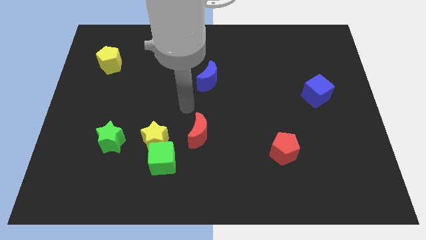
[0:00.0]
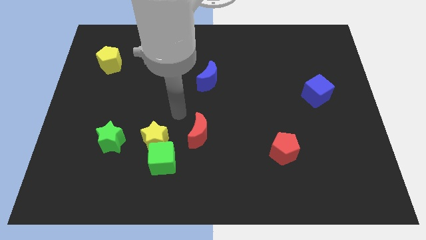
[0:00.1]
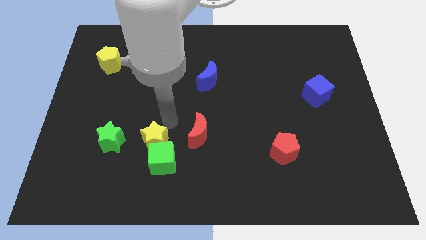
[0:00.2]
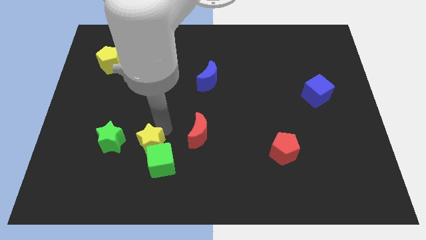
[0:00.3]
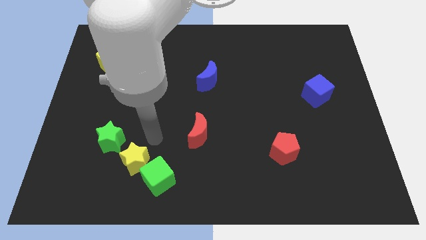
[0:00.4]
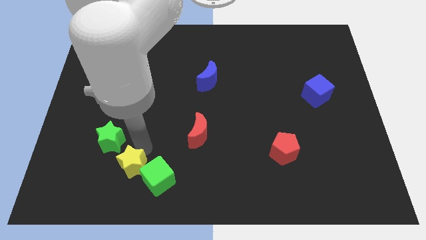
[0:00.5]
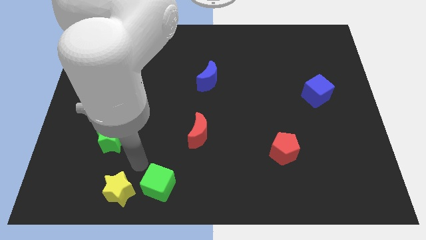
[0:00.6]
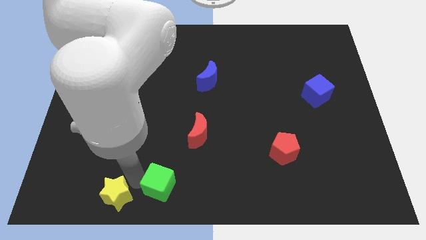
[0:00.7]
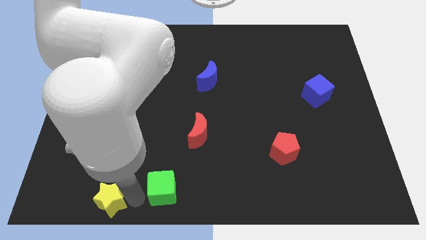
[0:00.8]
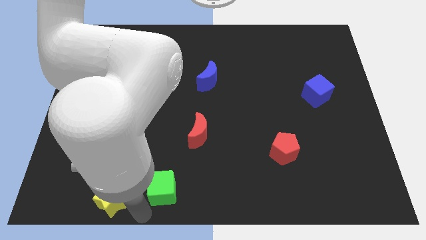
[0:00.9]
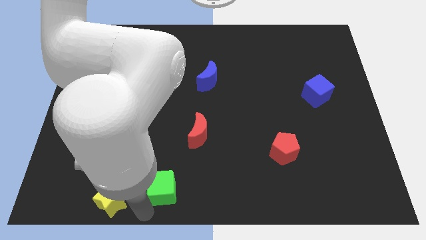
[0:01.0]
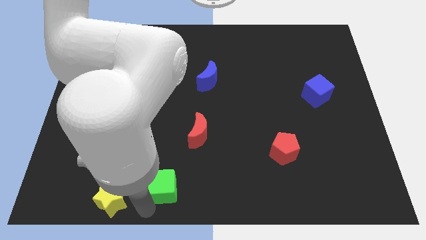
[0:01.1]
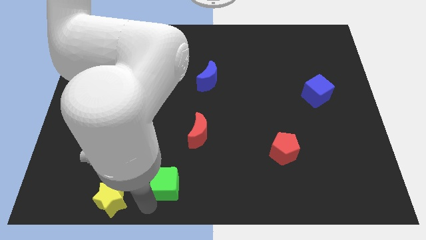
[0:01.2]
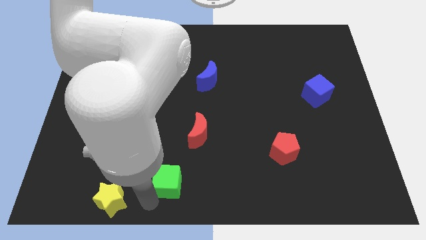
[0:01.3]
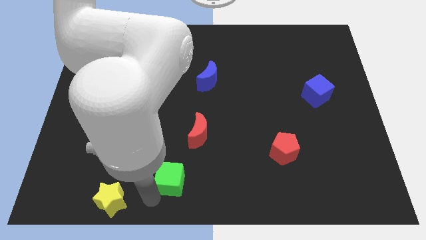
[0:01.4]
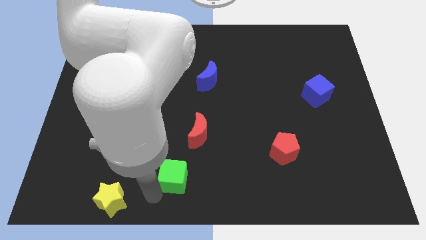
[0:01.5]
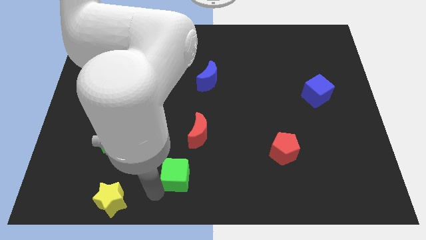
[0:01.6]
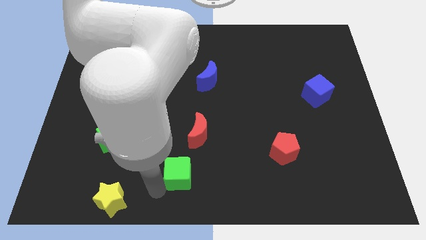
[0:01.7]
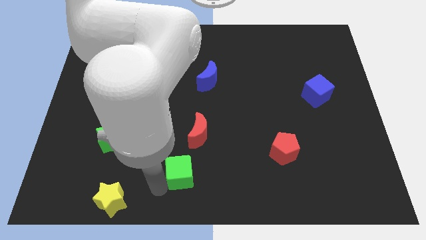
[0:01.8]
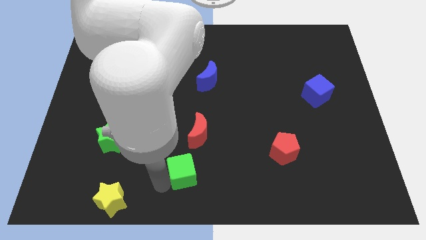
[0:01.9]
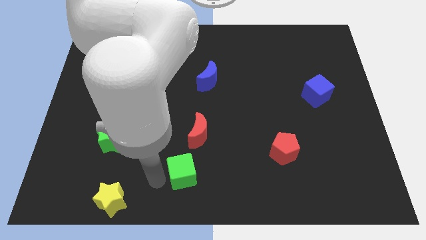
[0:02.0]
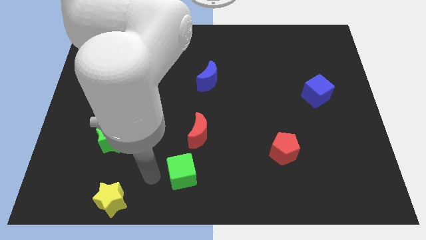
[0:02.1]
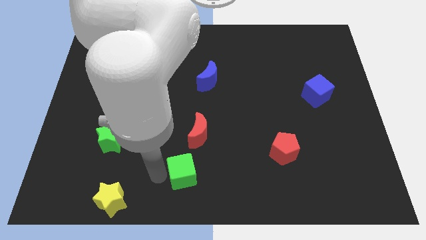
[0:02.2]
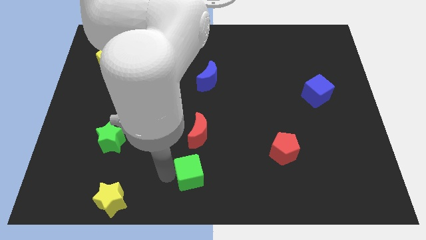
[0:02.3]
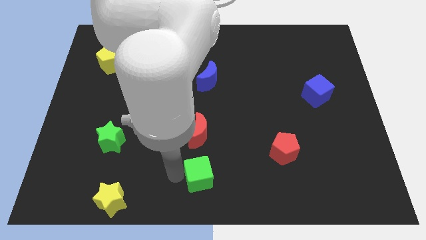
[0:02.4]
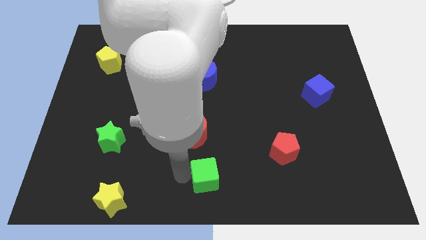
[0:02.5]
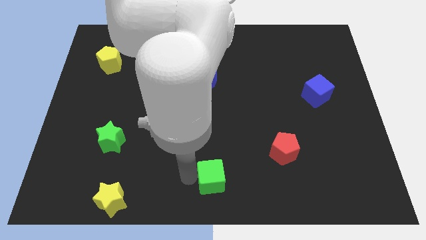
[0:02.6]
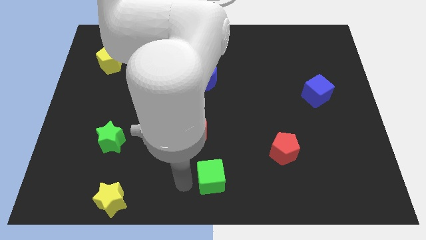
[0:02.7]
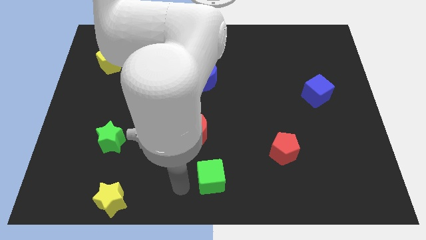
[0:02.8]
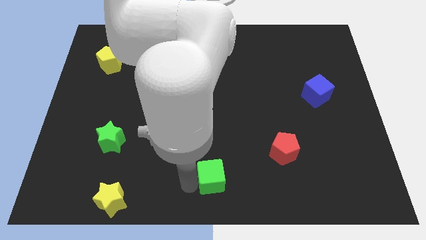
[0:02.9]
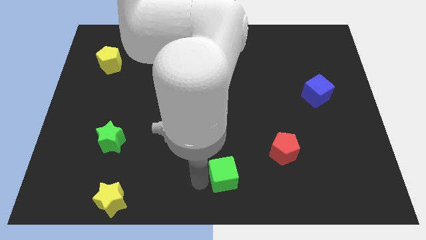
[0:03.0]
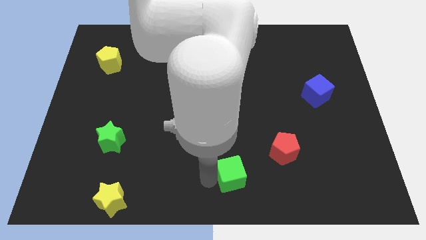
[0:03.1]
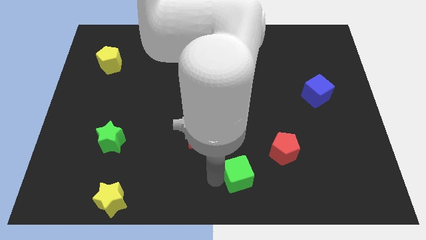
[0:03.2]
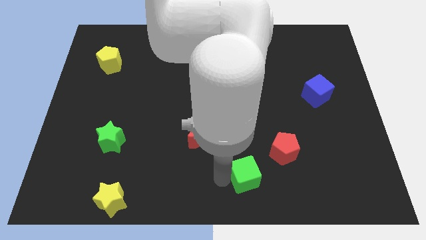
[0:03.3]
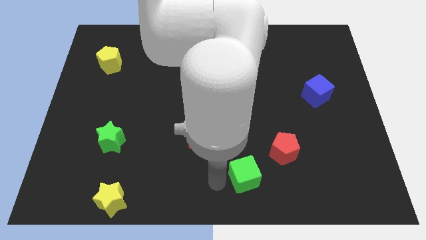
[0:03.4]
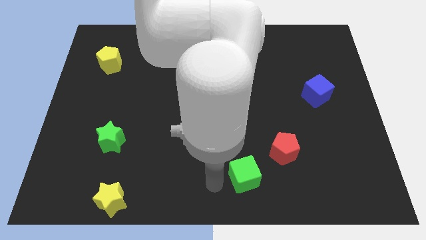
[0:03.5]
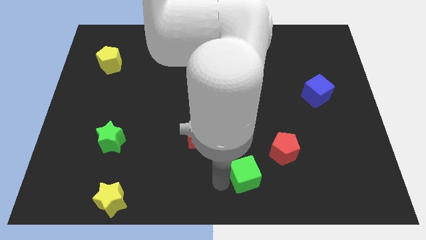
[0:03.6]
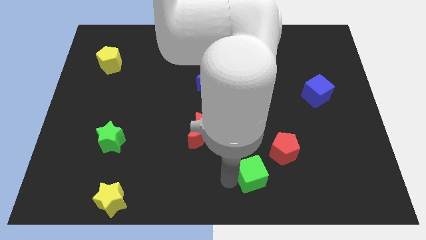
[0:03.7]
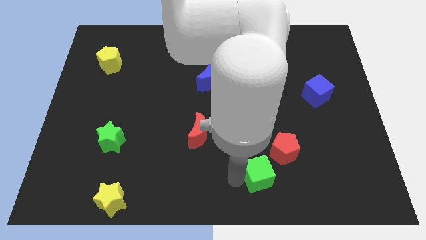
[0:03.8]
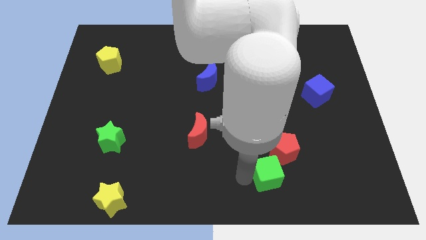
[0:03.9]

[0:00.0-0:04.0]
push the green cube right

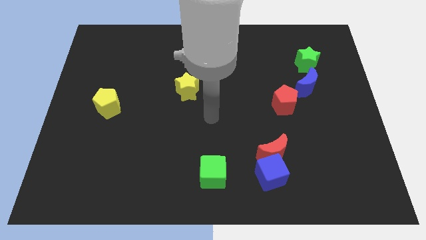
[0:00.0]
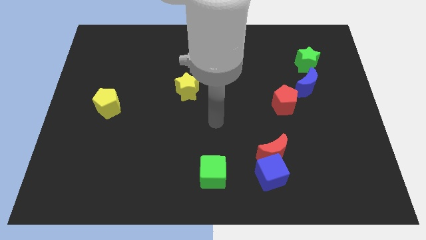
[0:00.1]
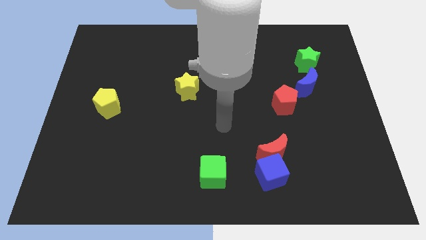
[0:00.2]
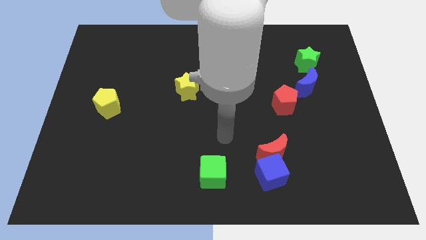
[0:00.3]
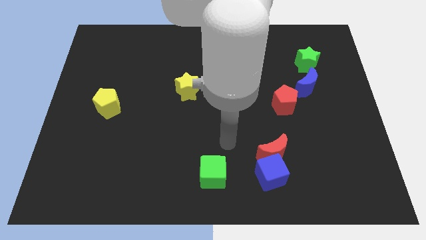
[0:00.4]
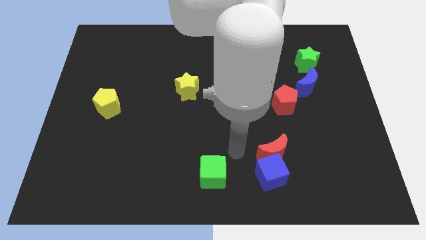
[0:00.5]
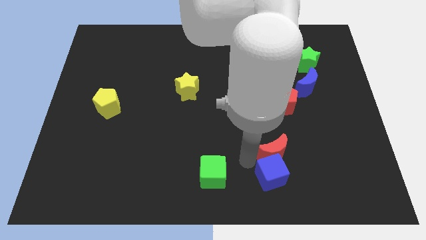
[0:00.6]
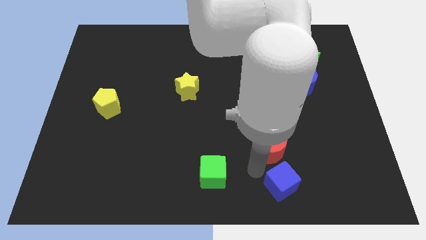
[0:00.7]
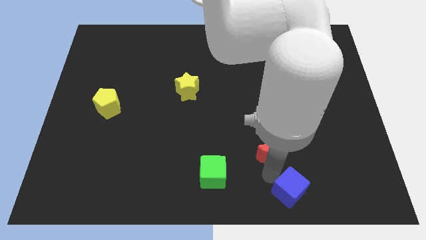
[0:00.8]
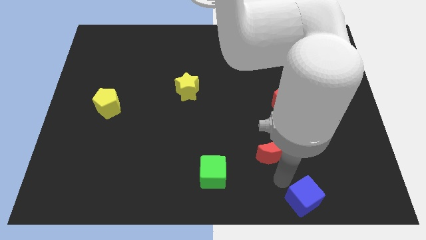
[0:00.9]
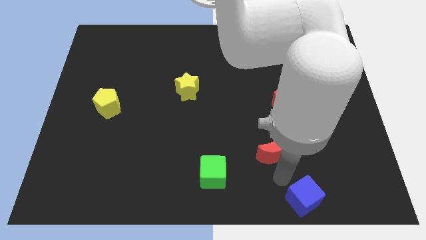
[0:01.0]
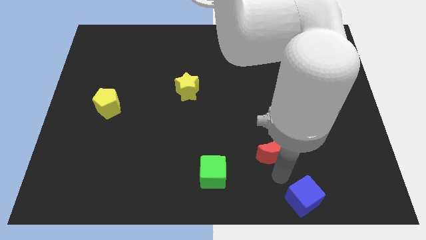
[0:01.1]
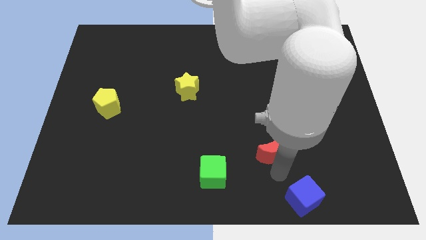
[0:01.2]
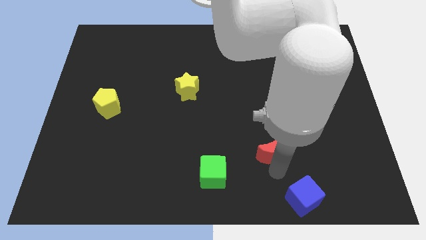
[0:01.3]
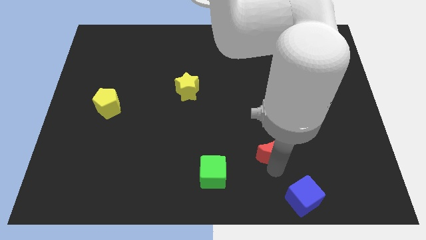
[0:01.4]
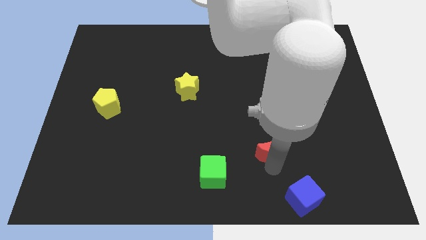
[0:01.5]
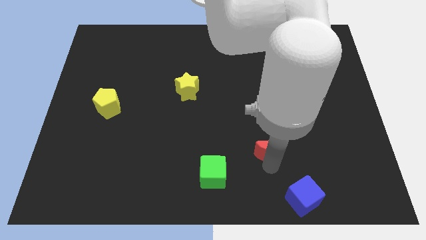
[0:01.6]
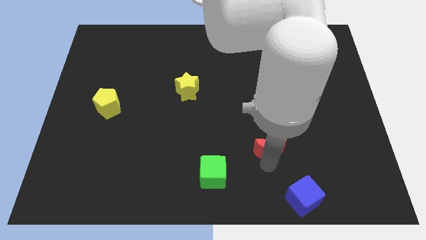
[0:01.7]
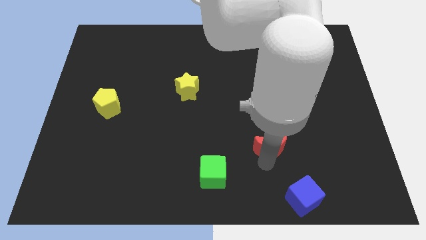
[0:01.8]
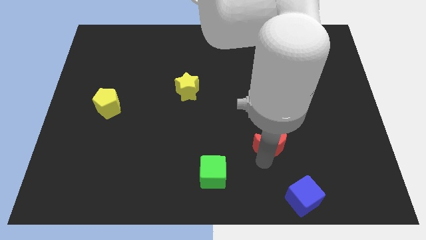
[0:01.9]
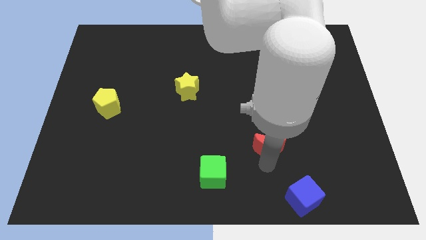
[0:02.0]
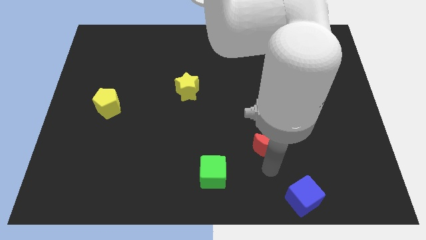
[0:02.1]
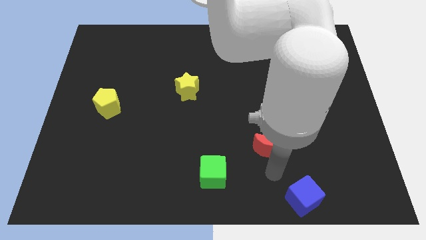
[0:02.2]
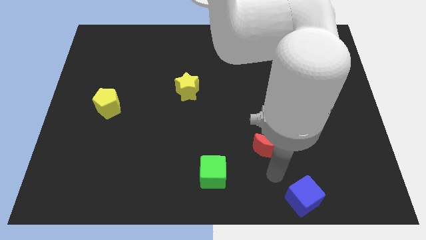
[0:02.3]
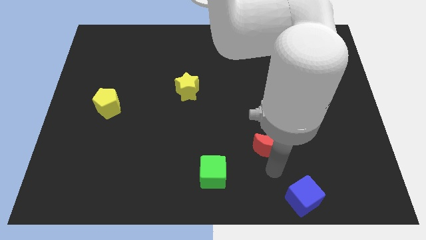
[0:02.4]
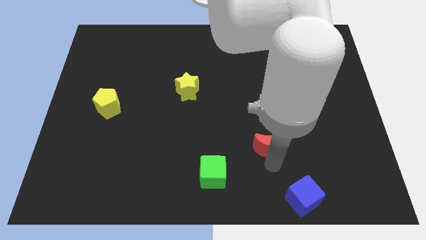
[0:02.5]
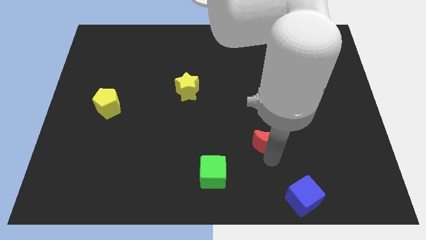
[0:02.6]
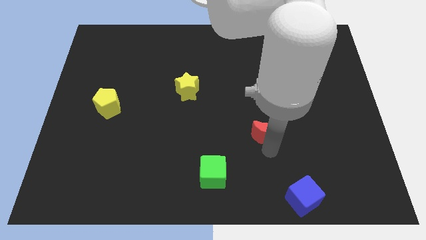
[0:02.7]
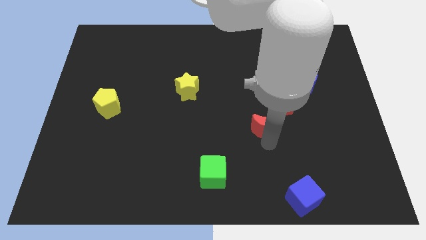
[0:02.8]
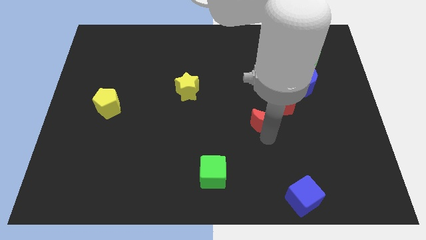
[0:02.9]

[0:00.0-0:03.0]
slide the red moon upwards somewhat

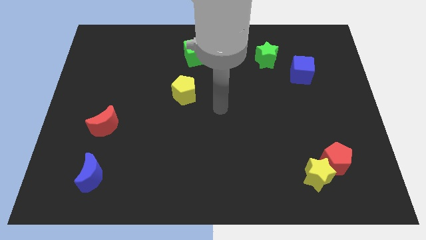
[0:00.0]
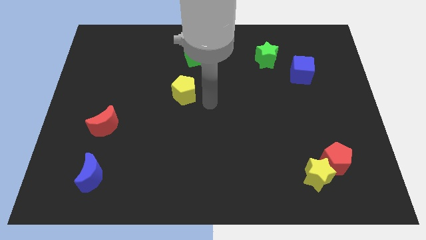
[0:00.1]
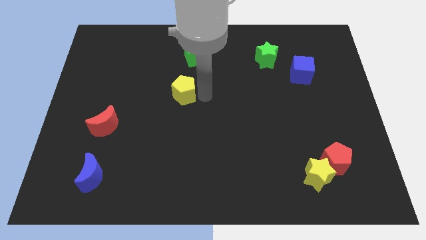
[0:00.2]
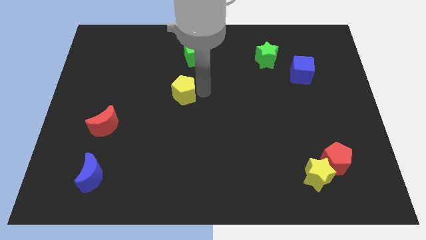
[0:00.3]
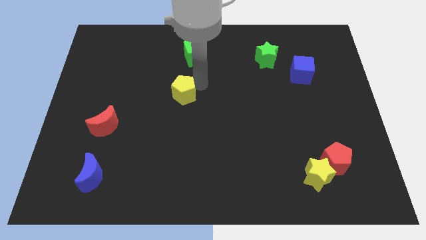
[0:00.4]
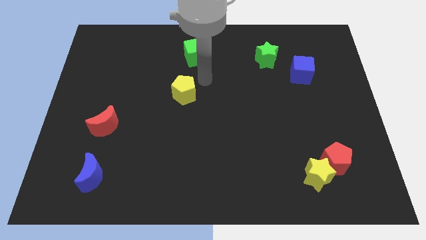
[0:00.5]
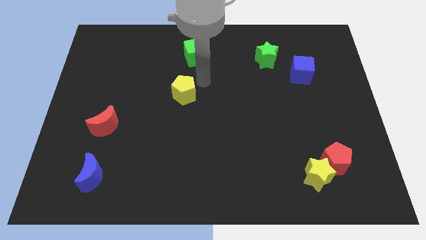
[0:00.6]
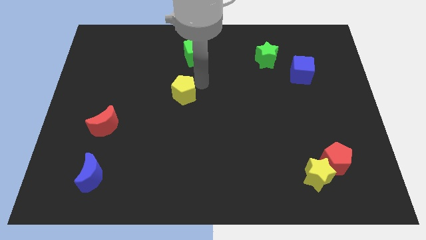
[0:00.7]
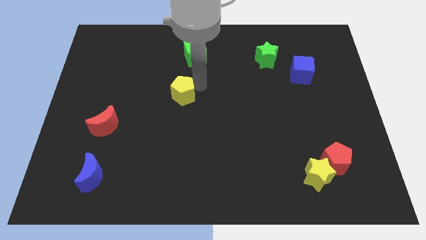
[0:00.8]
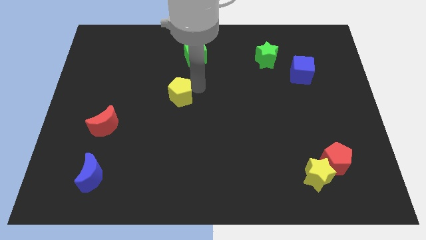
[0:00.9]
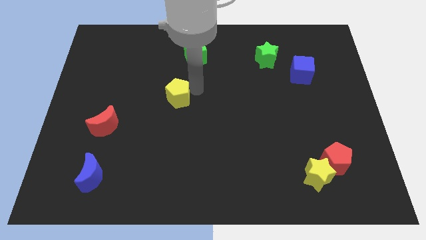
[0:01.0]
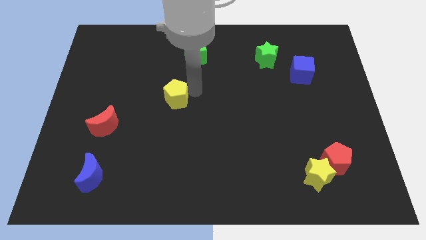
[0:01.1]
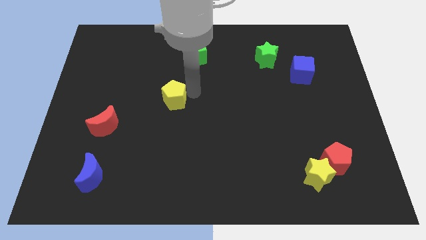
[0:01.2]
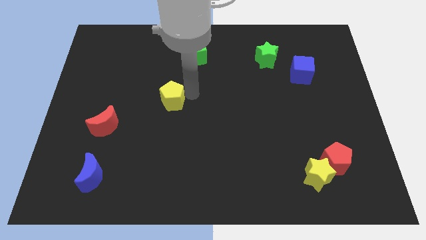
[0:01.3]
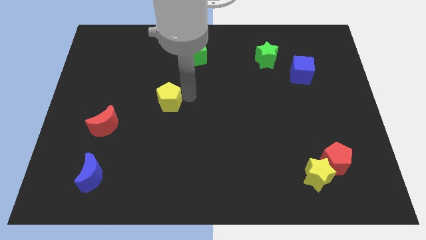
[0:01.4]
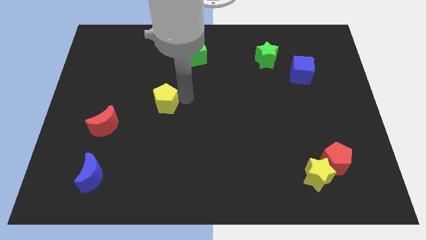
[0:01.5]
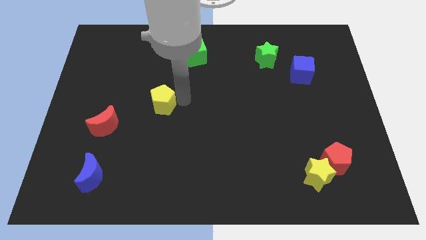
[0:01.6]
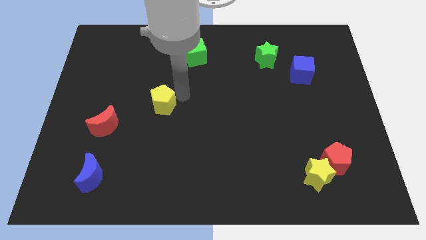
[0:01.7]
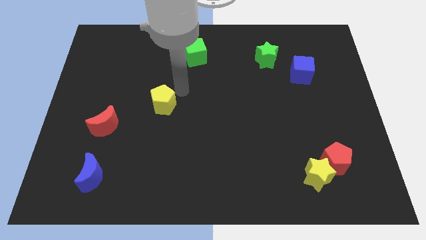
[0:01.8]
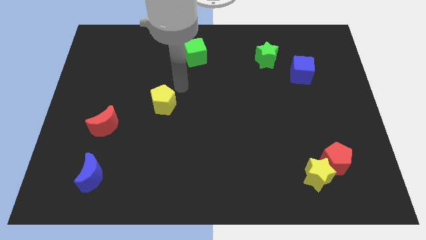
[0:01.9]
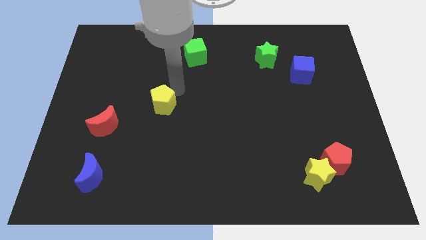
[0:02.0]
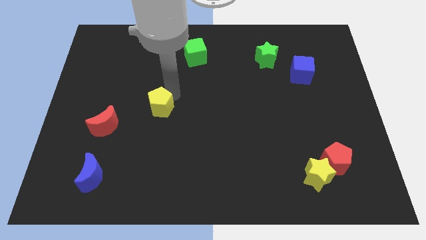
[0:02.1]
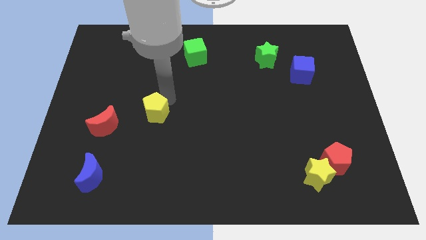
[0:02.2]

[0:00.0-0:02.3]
push the yellow pentagon a bit diagonally down and to the left
